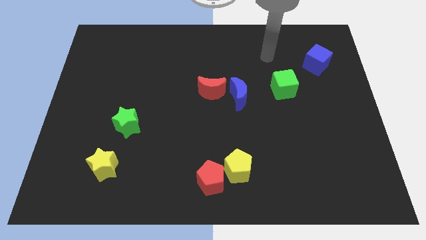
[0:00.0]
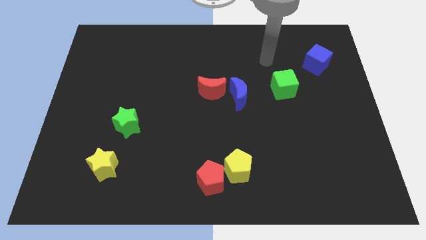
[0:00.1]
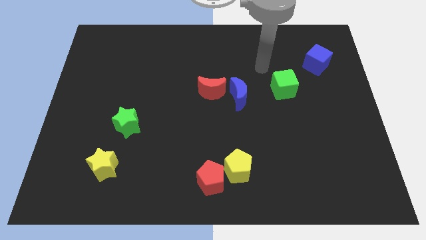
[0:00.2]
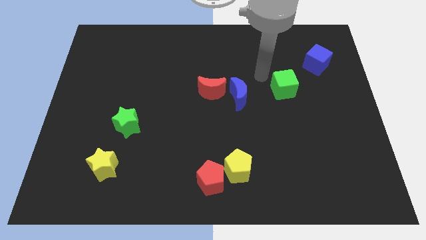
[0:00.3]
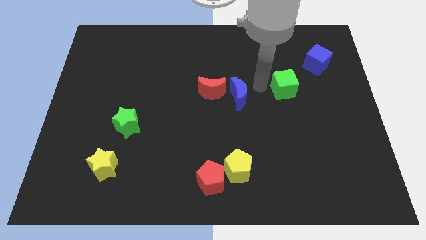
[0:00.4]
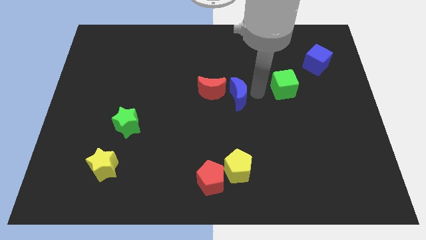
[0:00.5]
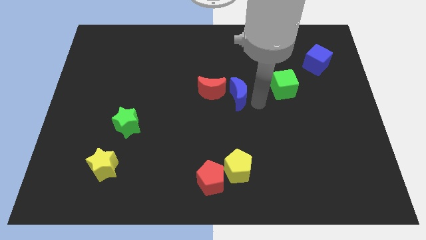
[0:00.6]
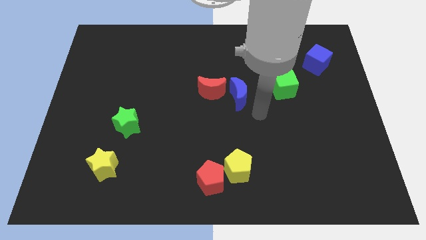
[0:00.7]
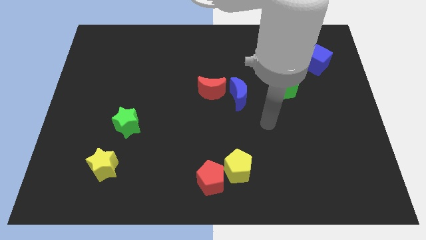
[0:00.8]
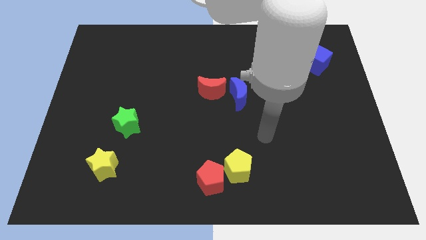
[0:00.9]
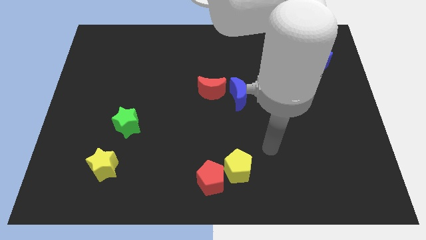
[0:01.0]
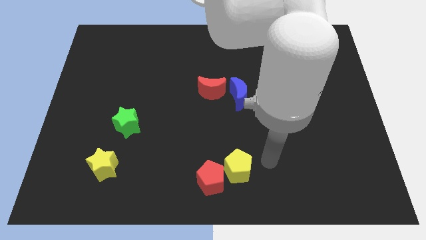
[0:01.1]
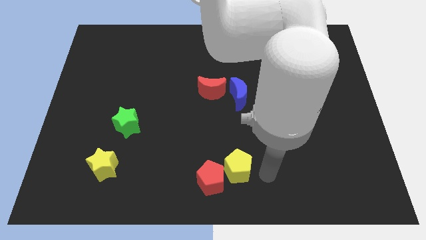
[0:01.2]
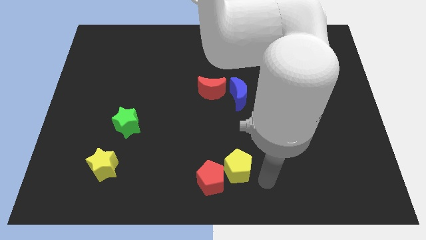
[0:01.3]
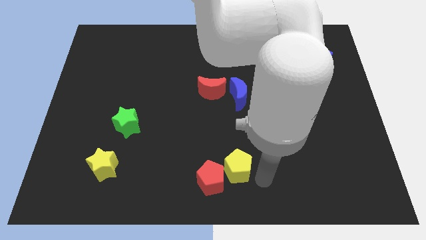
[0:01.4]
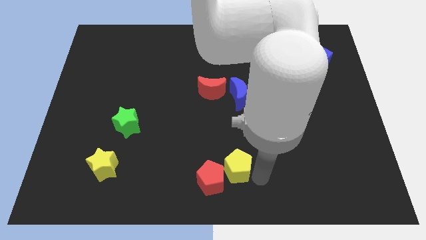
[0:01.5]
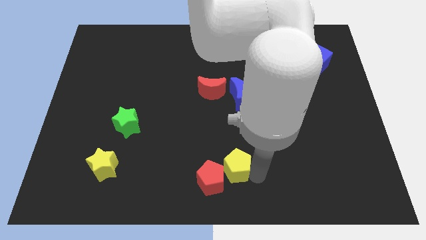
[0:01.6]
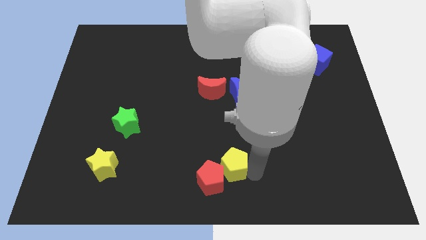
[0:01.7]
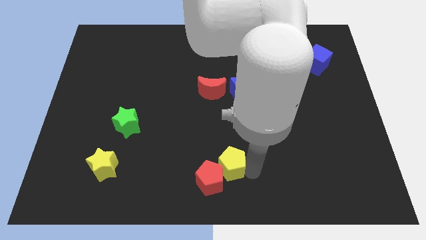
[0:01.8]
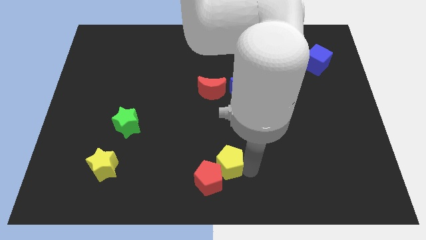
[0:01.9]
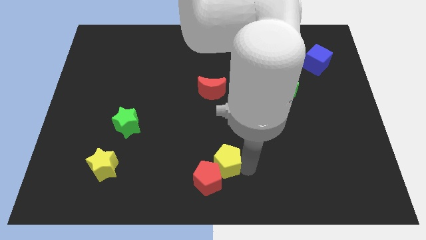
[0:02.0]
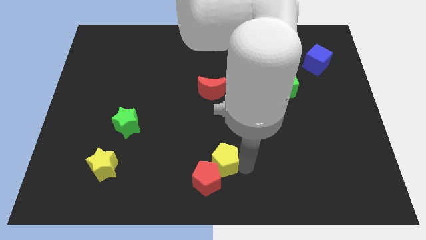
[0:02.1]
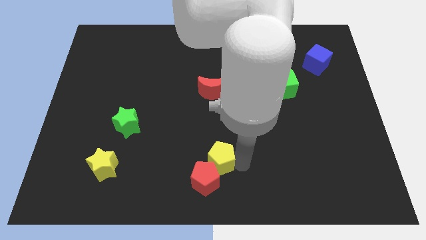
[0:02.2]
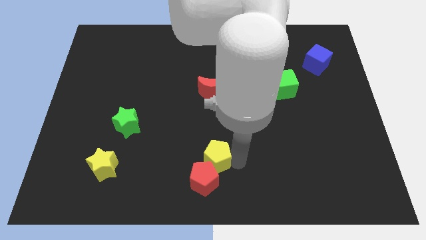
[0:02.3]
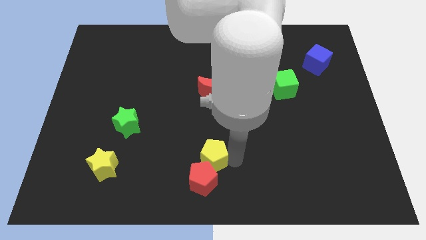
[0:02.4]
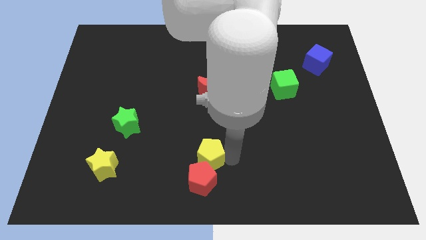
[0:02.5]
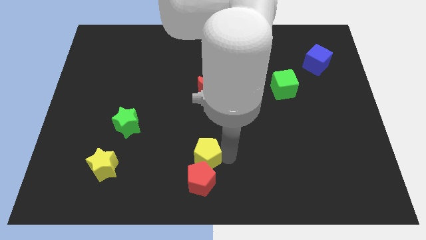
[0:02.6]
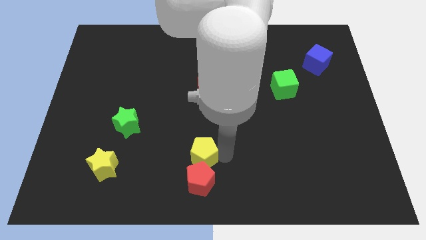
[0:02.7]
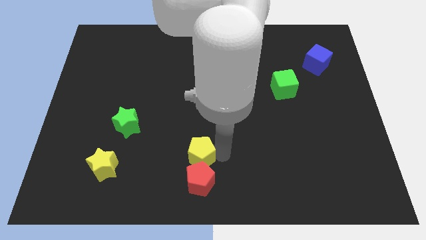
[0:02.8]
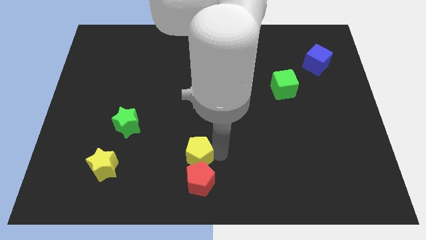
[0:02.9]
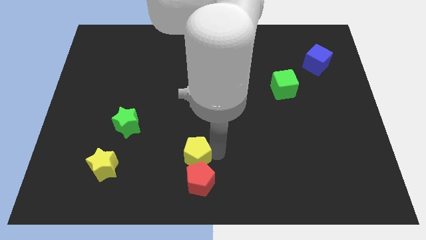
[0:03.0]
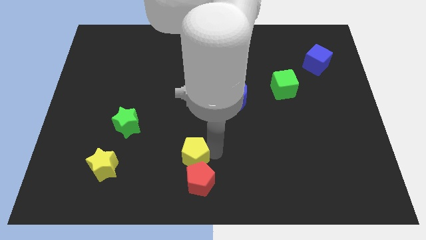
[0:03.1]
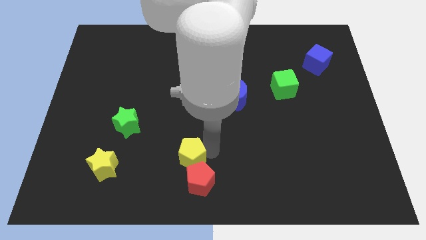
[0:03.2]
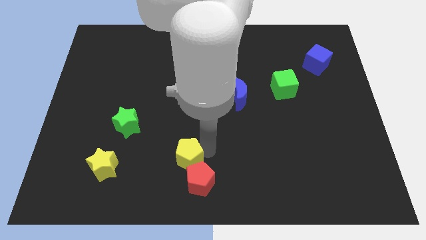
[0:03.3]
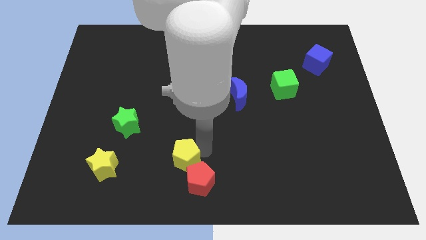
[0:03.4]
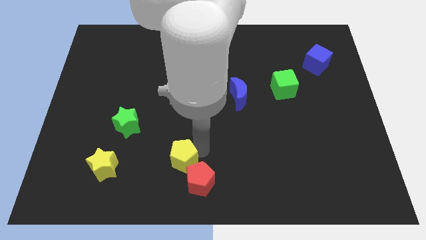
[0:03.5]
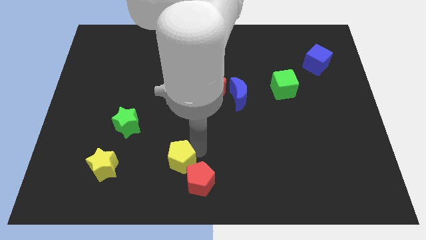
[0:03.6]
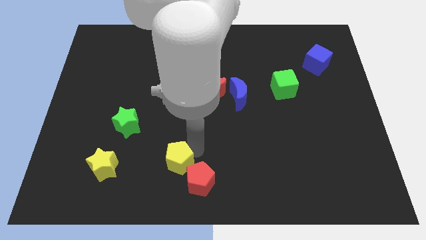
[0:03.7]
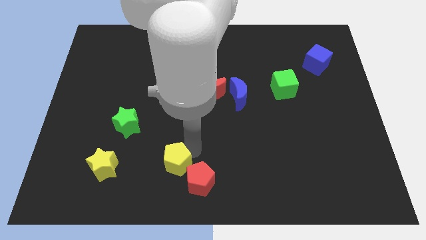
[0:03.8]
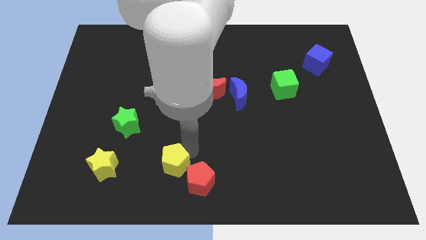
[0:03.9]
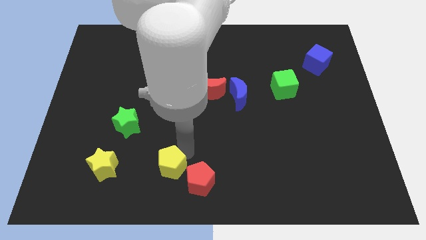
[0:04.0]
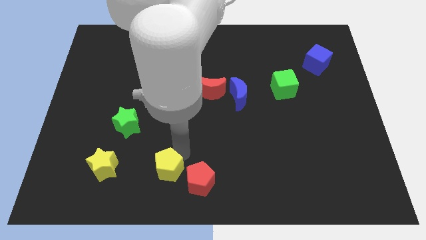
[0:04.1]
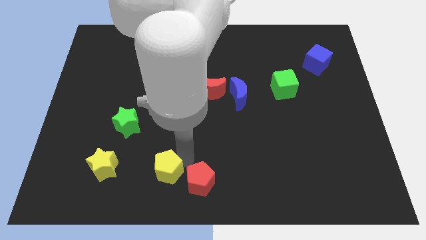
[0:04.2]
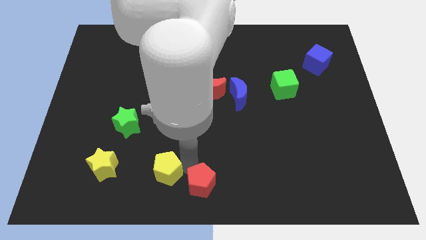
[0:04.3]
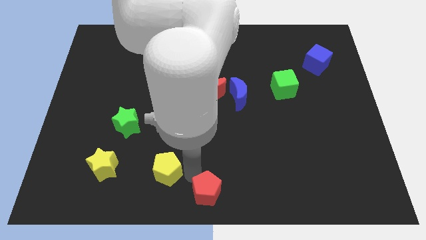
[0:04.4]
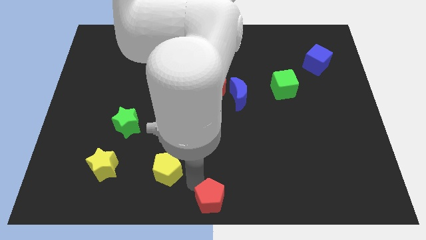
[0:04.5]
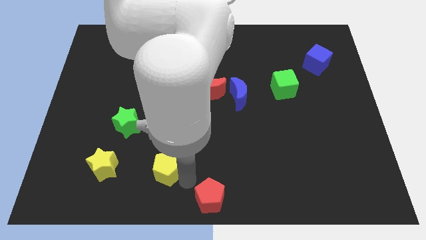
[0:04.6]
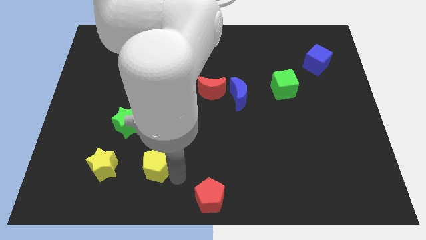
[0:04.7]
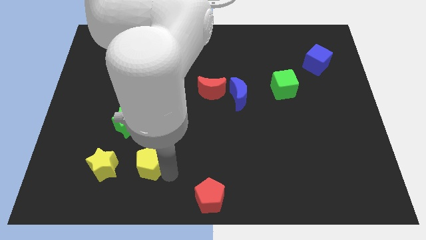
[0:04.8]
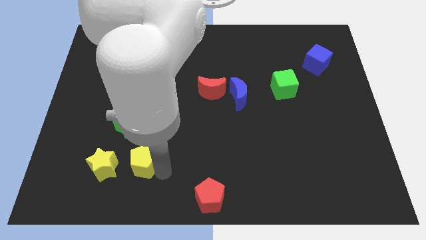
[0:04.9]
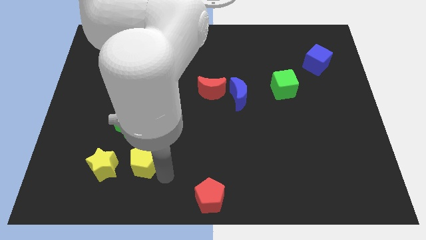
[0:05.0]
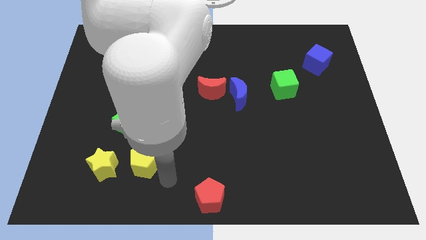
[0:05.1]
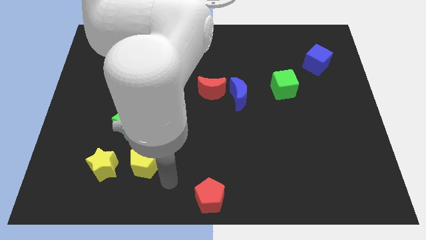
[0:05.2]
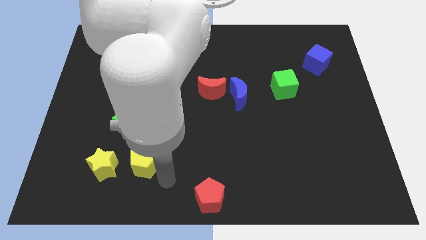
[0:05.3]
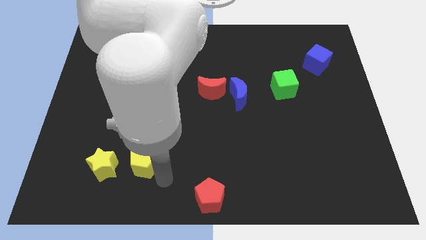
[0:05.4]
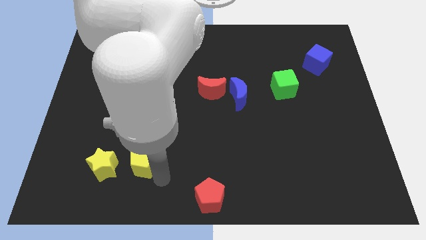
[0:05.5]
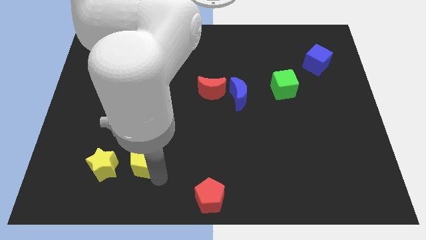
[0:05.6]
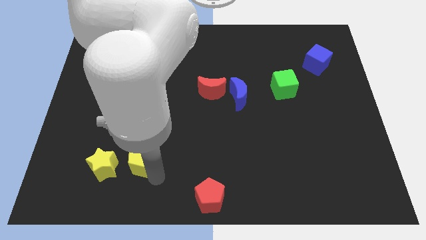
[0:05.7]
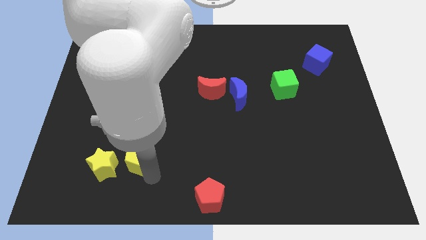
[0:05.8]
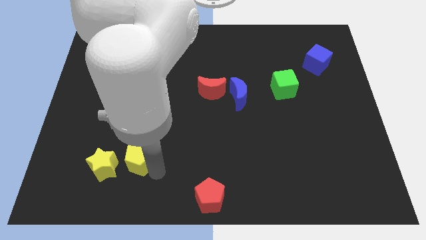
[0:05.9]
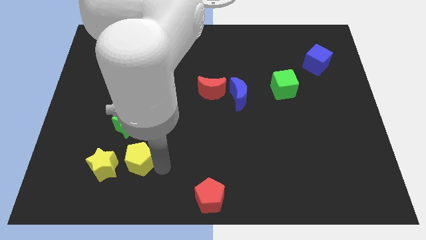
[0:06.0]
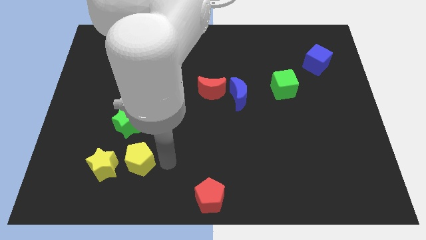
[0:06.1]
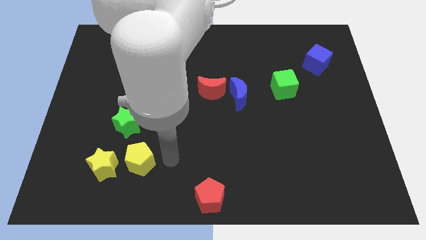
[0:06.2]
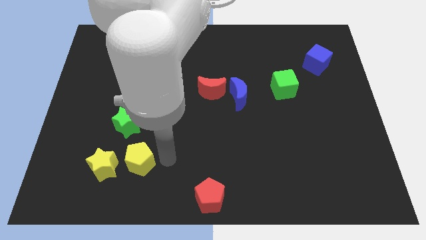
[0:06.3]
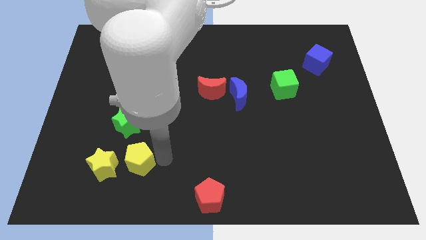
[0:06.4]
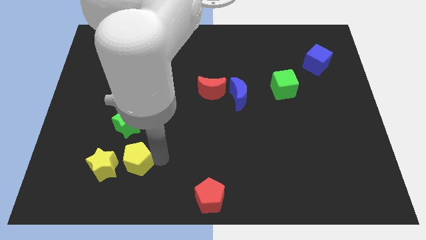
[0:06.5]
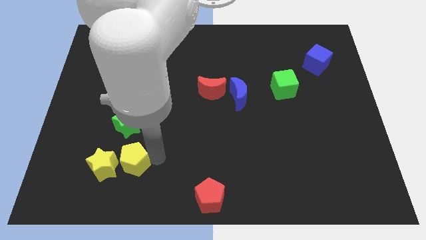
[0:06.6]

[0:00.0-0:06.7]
move the yellow pentagon towards the yellow star
